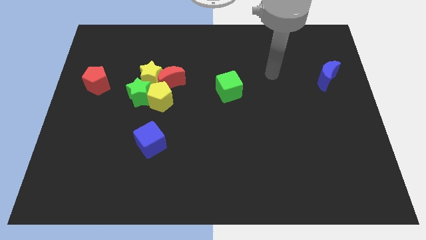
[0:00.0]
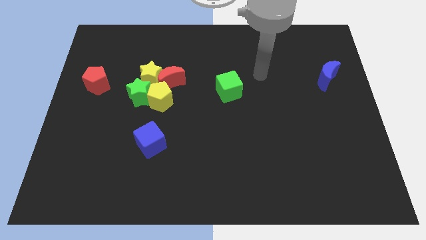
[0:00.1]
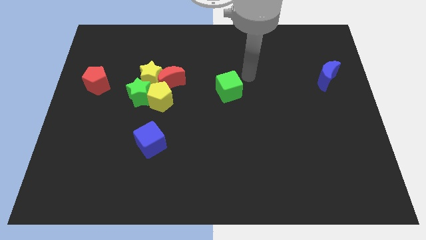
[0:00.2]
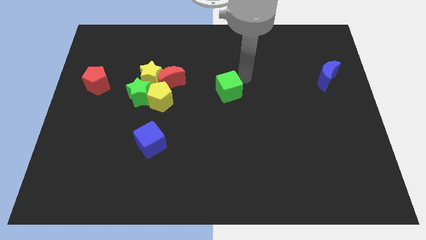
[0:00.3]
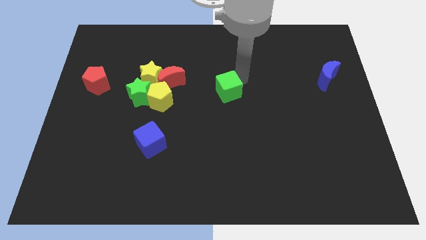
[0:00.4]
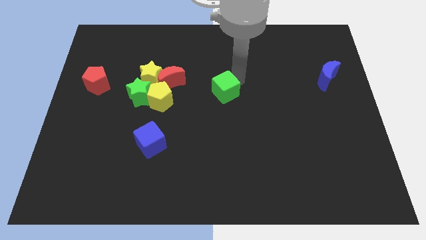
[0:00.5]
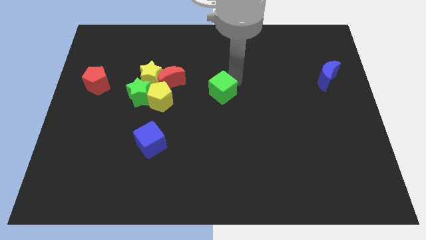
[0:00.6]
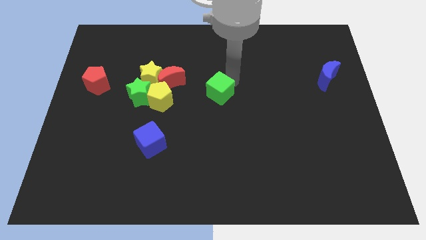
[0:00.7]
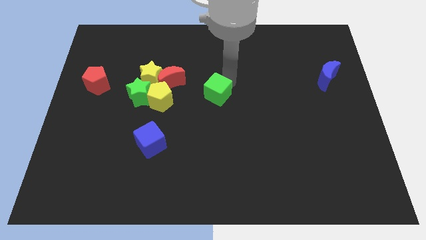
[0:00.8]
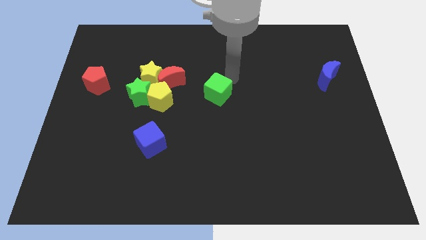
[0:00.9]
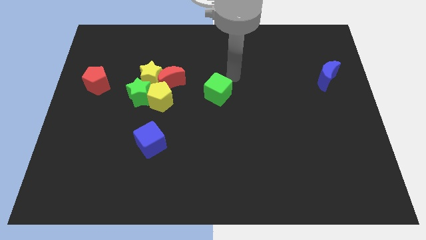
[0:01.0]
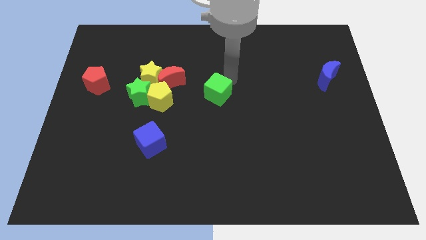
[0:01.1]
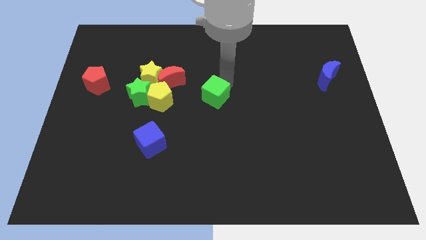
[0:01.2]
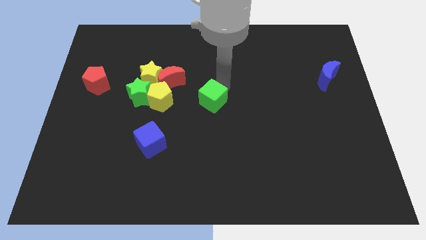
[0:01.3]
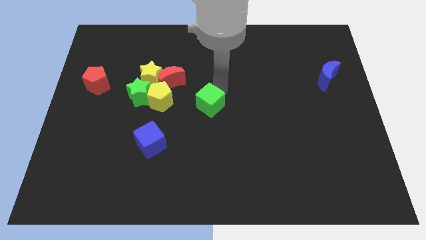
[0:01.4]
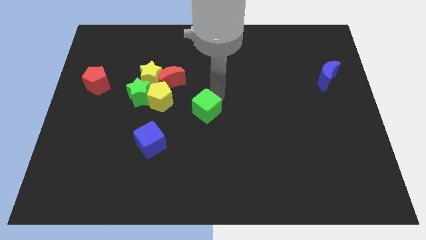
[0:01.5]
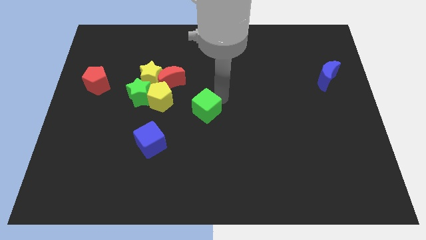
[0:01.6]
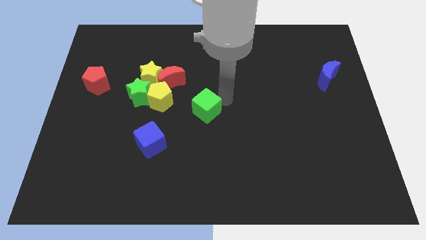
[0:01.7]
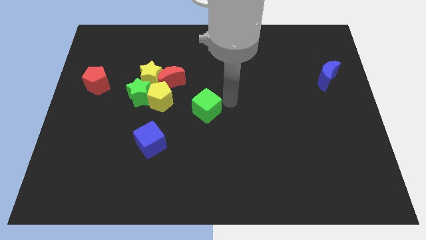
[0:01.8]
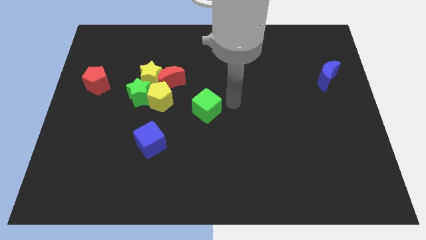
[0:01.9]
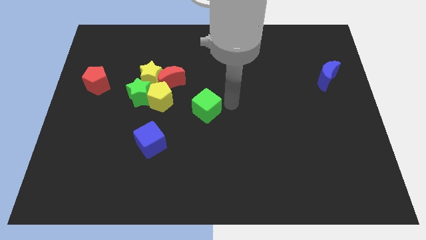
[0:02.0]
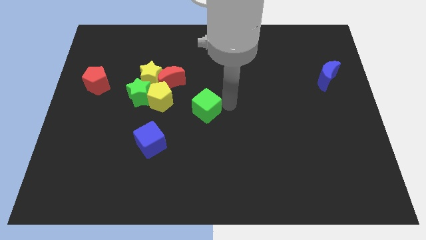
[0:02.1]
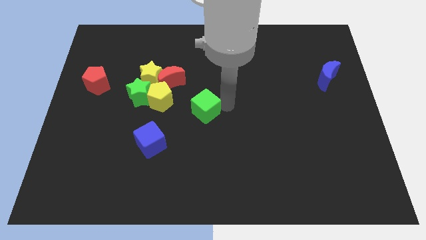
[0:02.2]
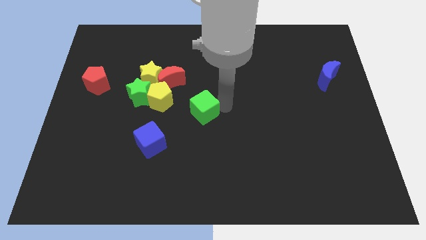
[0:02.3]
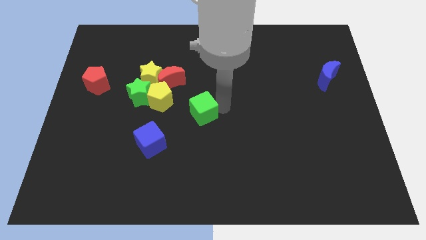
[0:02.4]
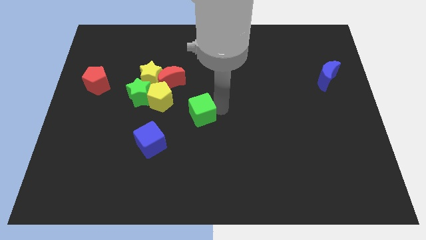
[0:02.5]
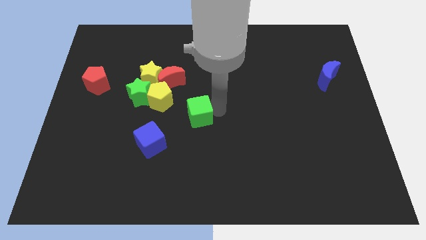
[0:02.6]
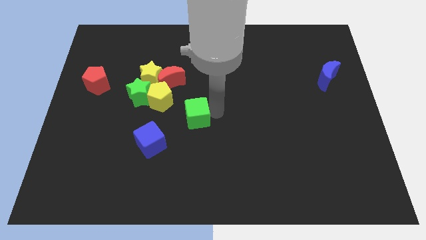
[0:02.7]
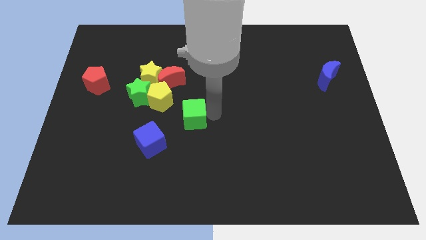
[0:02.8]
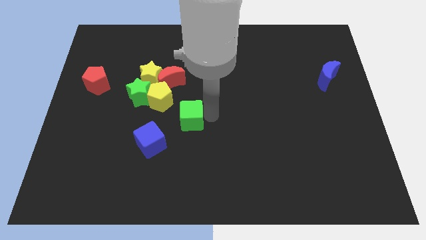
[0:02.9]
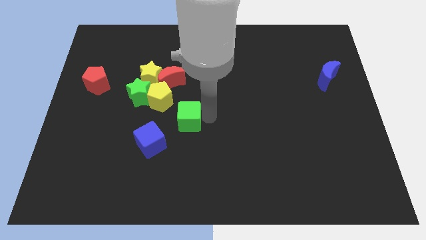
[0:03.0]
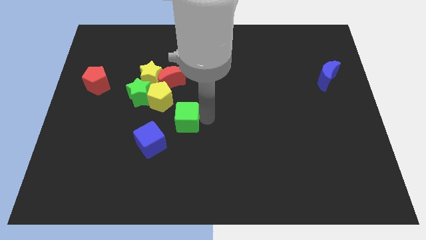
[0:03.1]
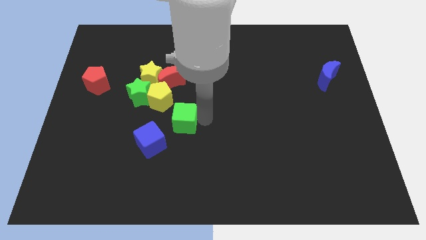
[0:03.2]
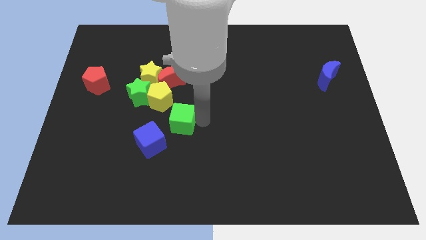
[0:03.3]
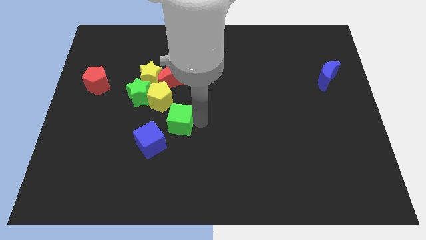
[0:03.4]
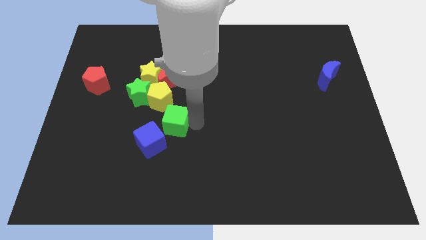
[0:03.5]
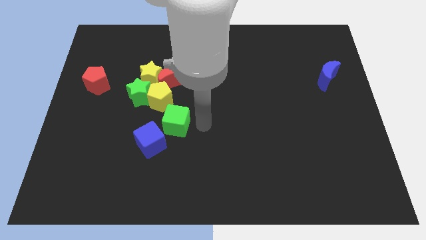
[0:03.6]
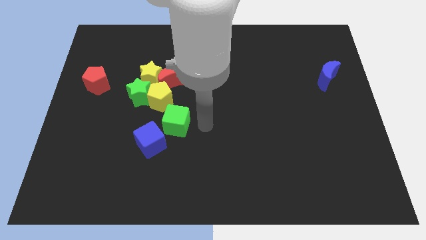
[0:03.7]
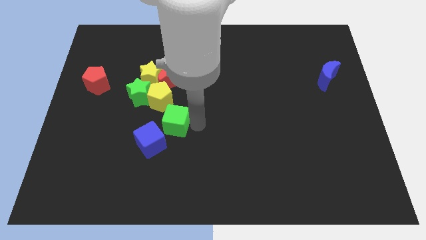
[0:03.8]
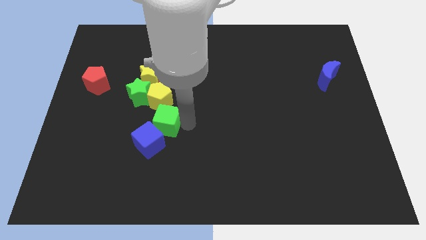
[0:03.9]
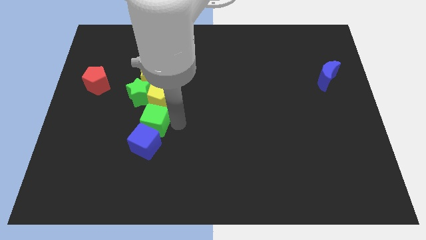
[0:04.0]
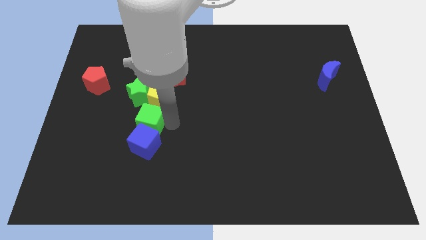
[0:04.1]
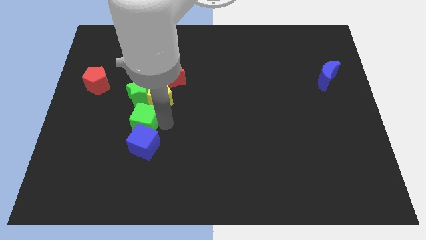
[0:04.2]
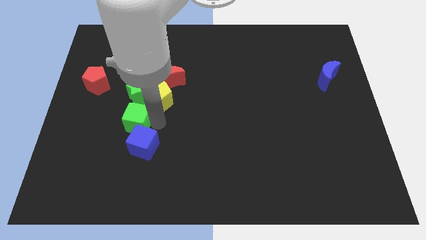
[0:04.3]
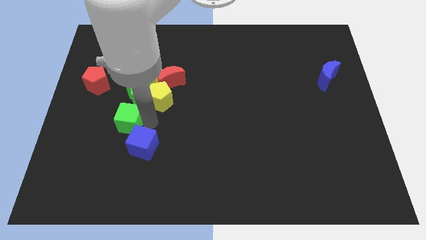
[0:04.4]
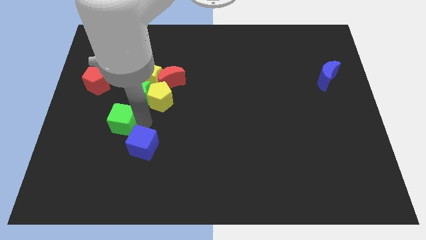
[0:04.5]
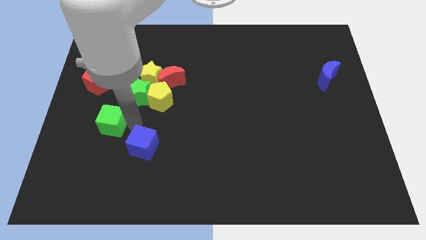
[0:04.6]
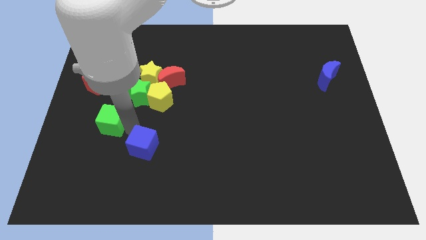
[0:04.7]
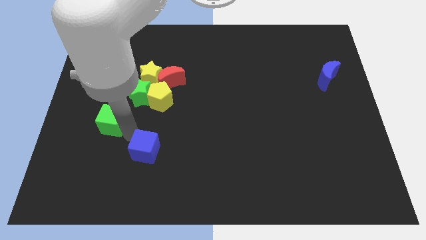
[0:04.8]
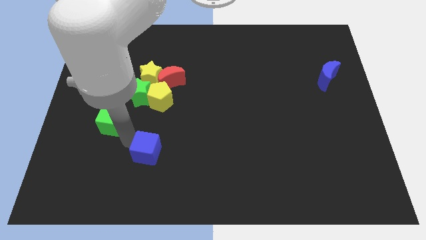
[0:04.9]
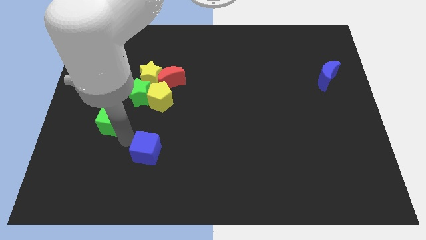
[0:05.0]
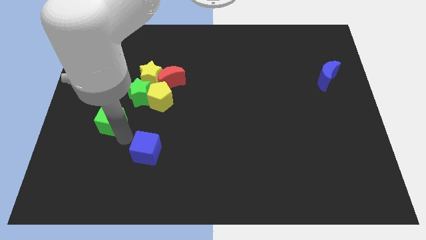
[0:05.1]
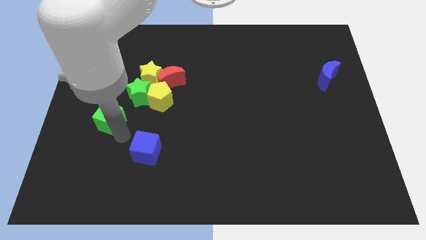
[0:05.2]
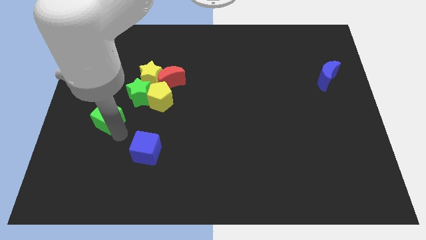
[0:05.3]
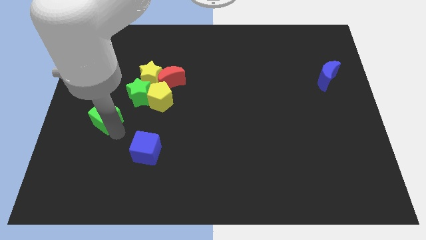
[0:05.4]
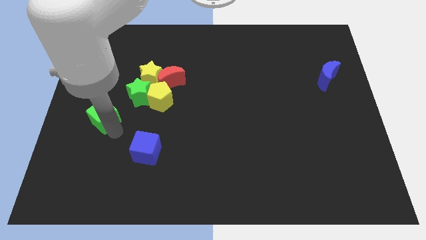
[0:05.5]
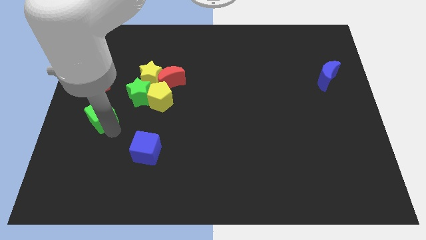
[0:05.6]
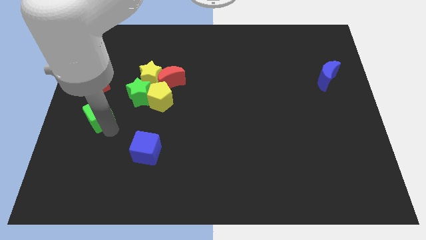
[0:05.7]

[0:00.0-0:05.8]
put the green cube to the left side

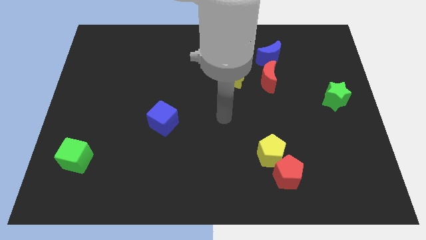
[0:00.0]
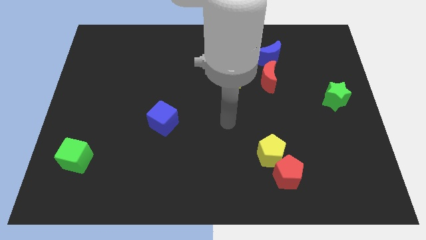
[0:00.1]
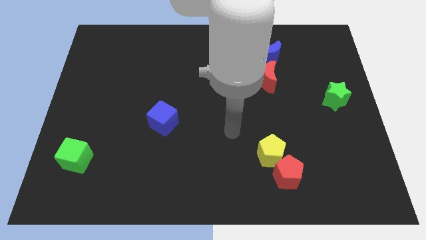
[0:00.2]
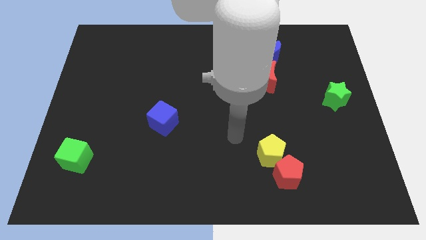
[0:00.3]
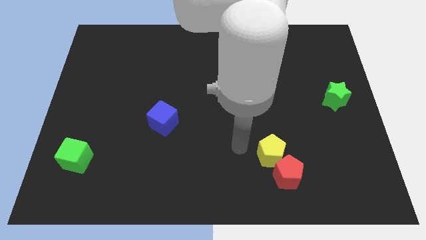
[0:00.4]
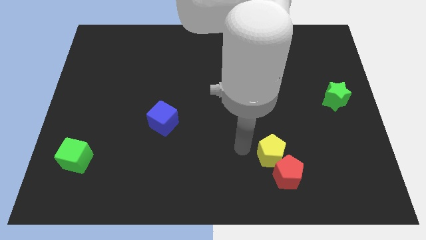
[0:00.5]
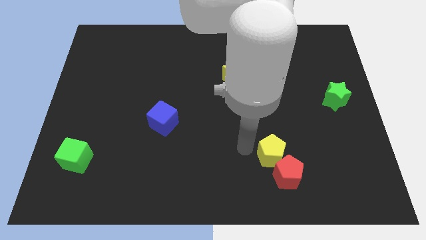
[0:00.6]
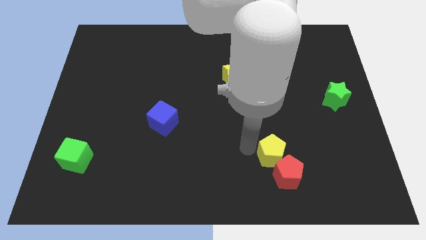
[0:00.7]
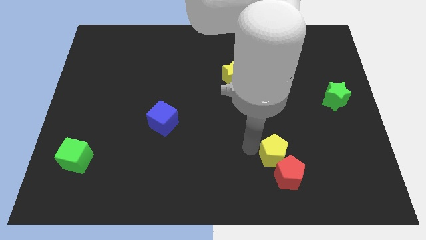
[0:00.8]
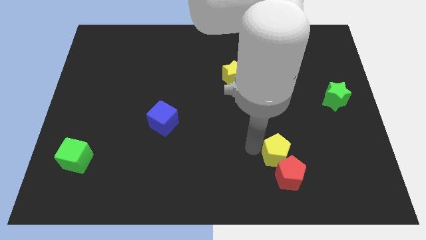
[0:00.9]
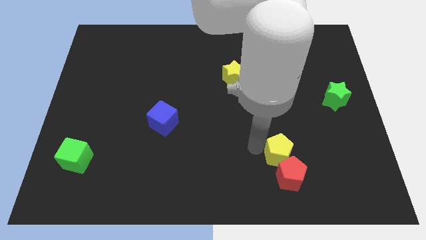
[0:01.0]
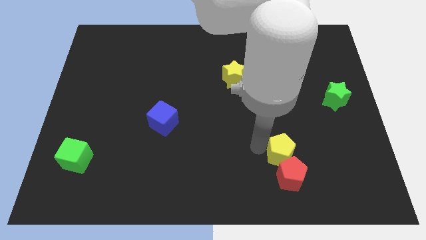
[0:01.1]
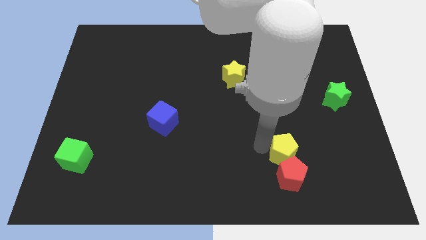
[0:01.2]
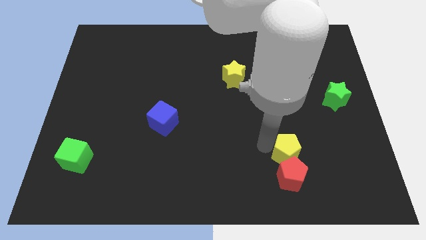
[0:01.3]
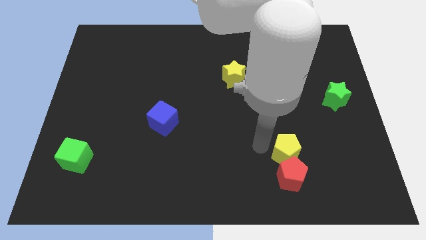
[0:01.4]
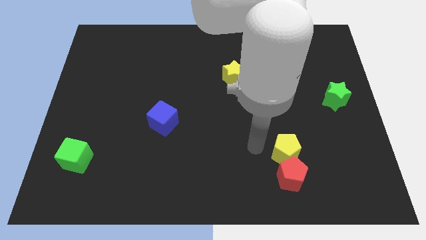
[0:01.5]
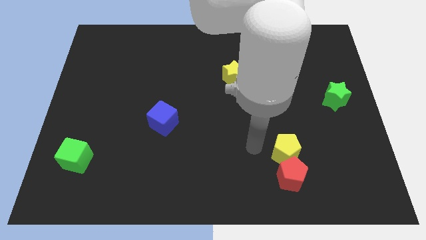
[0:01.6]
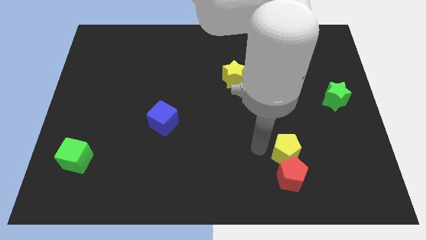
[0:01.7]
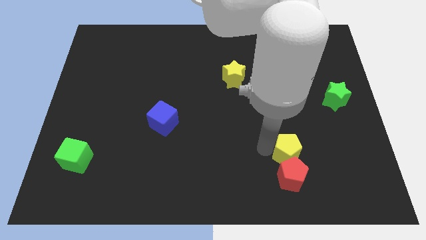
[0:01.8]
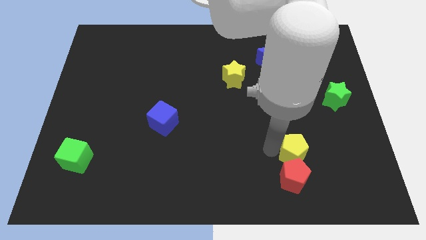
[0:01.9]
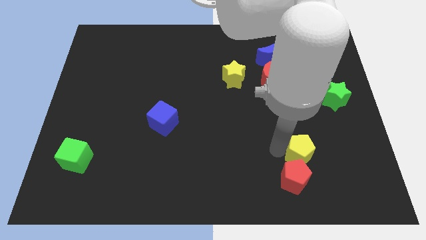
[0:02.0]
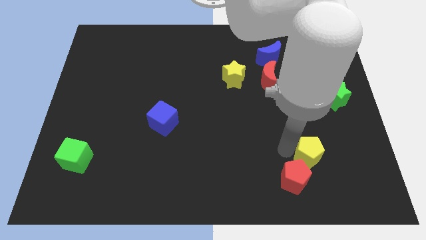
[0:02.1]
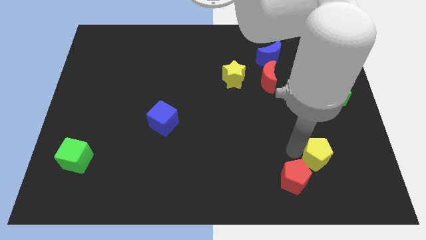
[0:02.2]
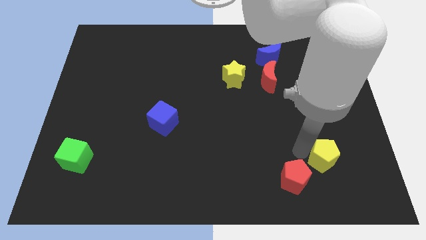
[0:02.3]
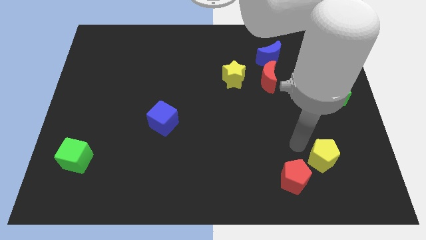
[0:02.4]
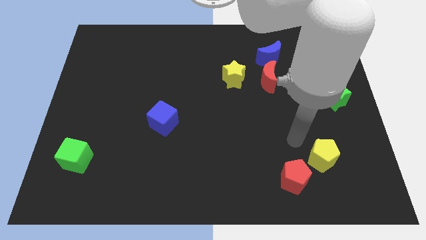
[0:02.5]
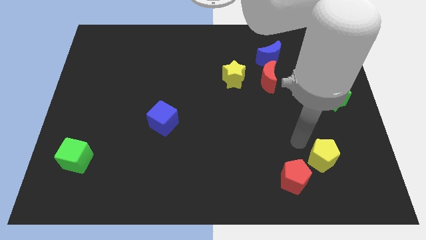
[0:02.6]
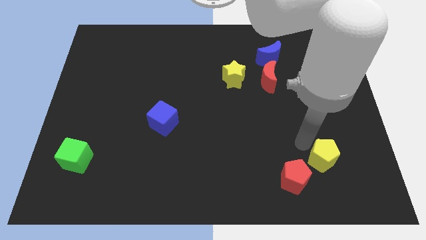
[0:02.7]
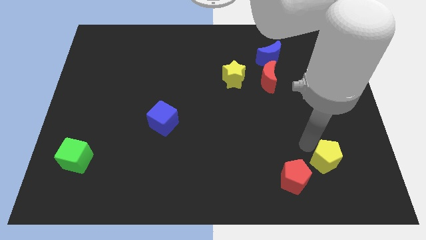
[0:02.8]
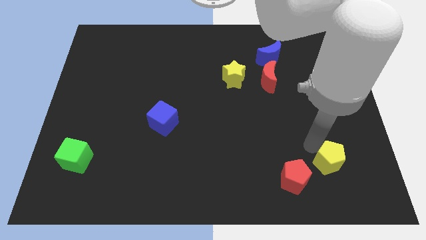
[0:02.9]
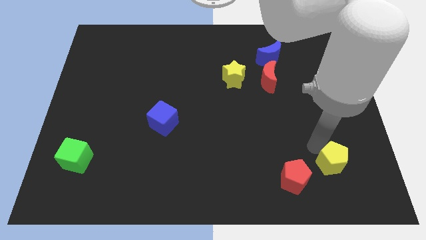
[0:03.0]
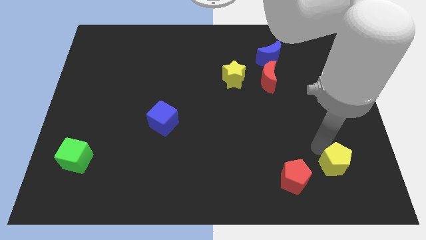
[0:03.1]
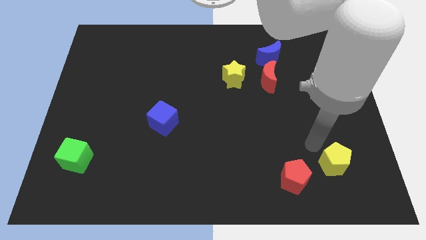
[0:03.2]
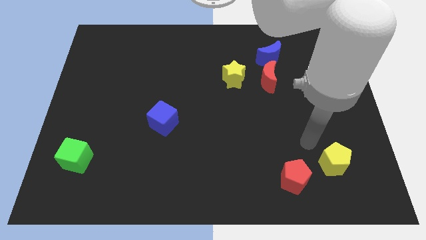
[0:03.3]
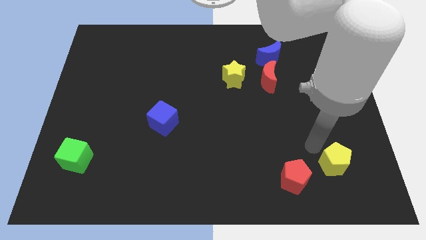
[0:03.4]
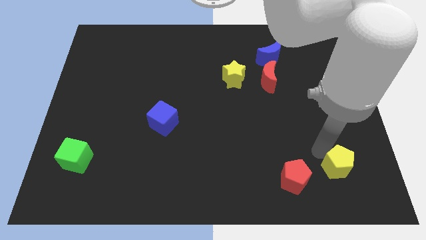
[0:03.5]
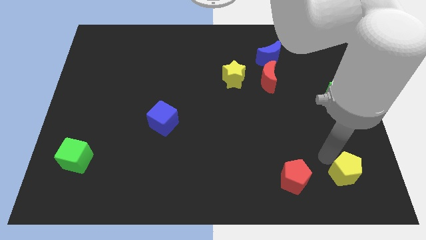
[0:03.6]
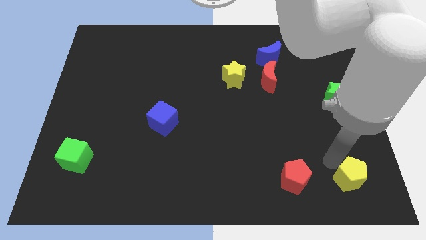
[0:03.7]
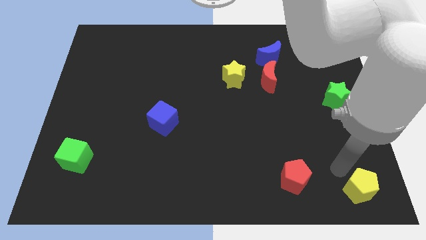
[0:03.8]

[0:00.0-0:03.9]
put the yellow pentagon to the bottom right
